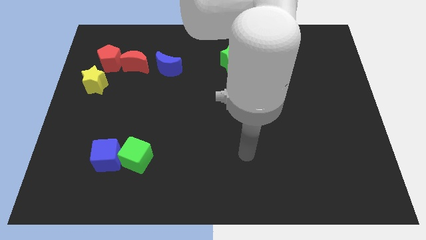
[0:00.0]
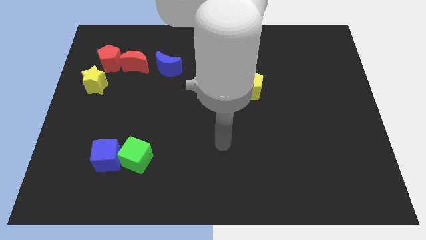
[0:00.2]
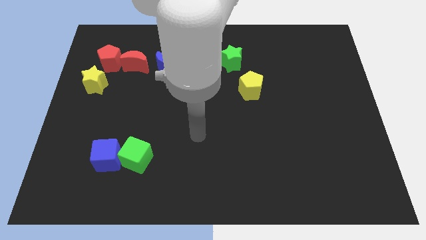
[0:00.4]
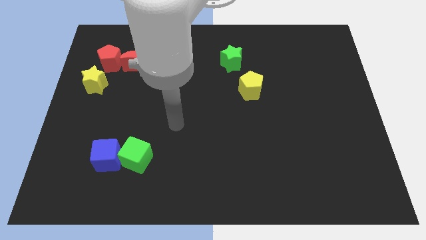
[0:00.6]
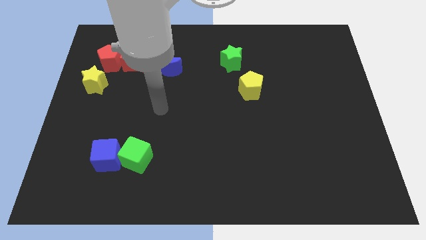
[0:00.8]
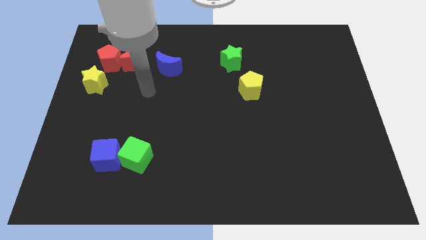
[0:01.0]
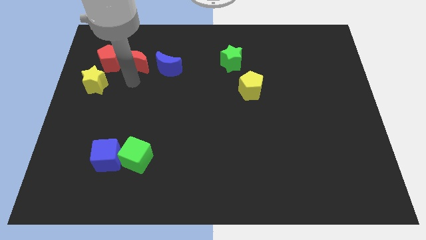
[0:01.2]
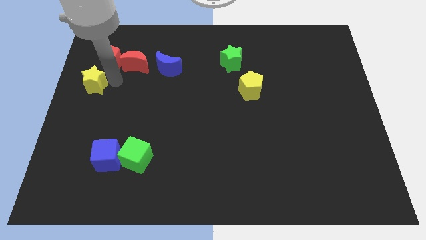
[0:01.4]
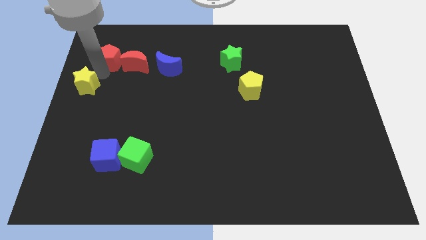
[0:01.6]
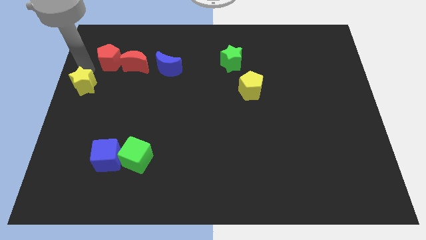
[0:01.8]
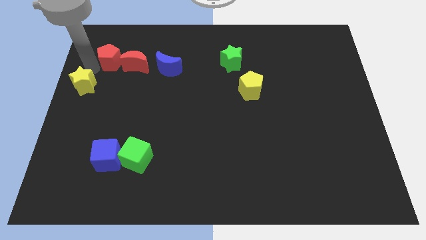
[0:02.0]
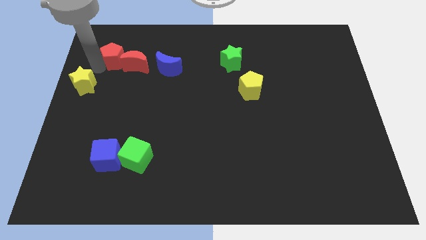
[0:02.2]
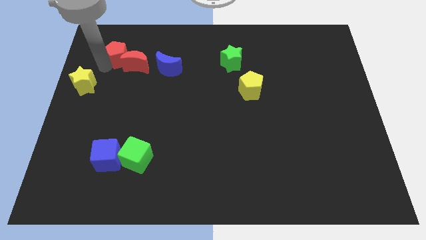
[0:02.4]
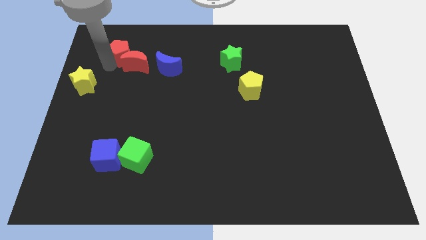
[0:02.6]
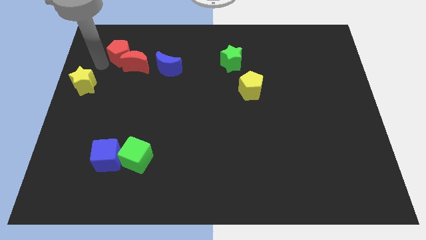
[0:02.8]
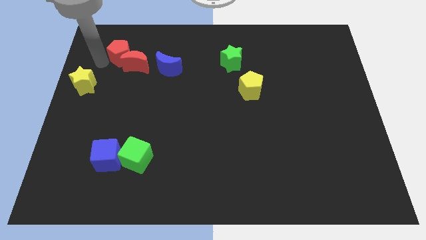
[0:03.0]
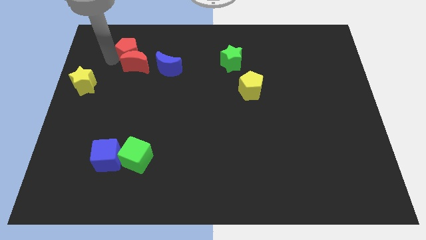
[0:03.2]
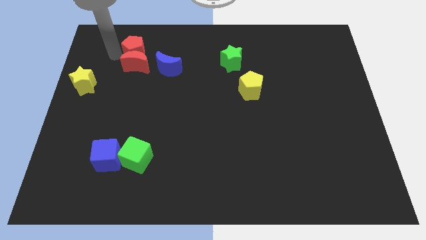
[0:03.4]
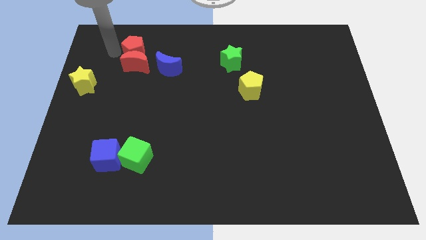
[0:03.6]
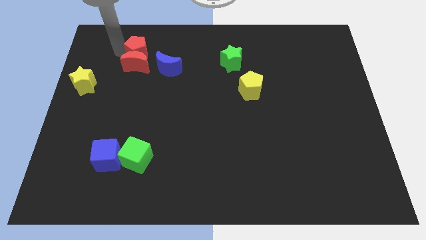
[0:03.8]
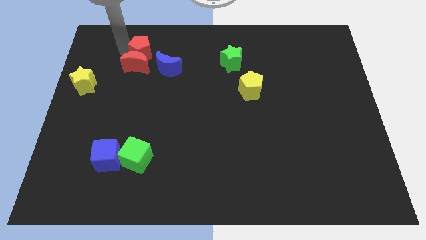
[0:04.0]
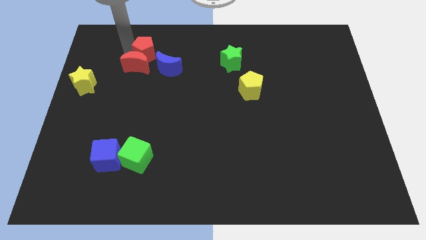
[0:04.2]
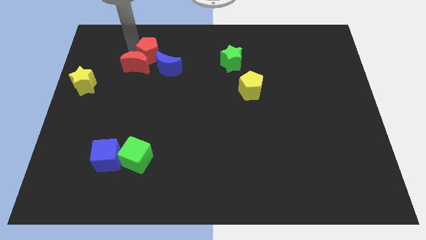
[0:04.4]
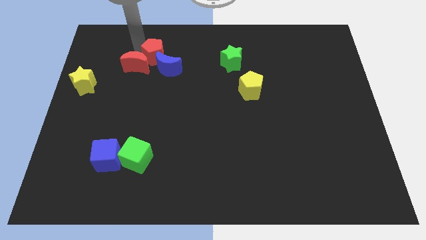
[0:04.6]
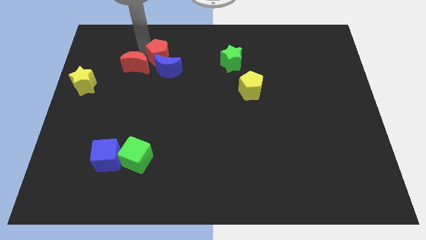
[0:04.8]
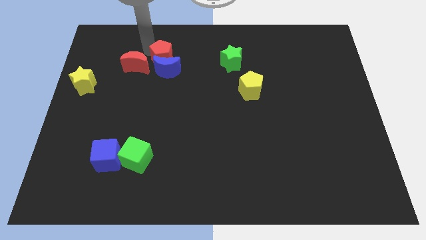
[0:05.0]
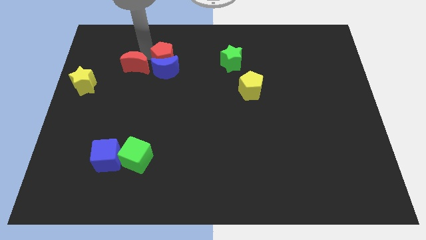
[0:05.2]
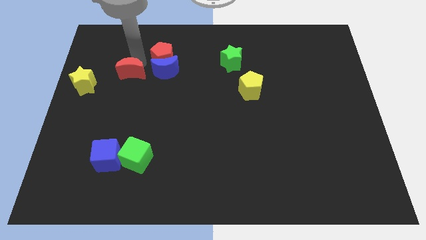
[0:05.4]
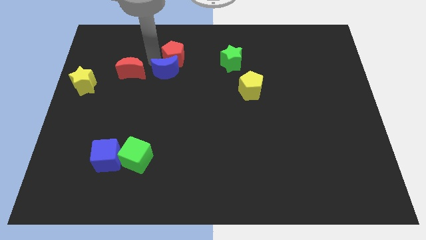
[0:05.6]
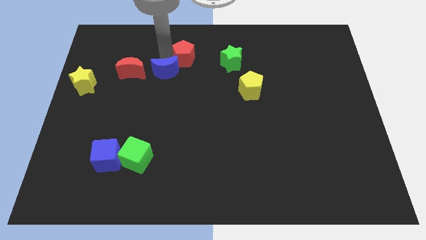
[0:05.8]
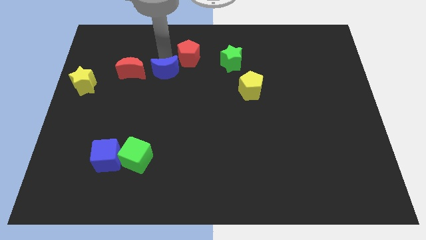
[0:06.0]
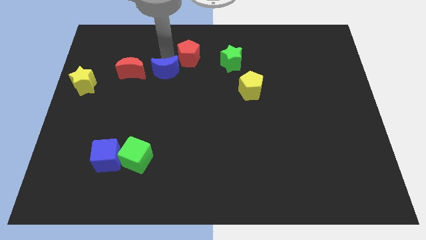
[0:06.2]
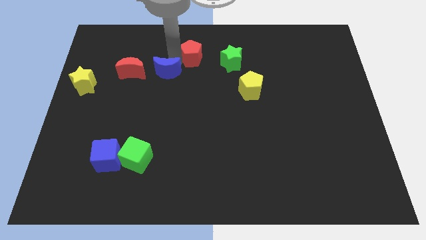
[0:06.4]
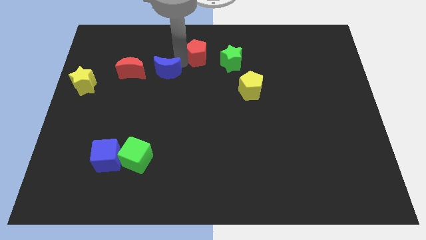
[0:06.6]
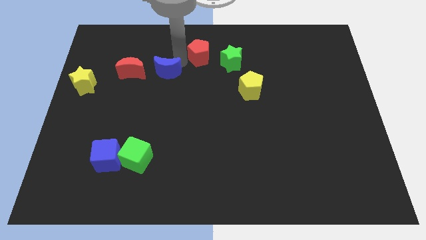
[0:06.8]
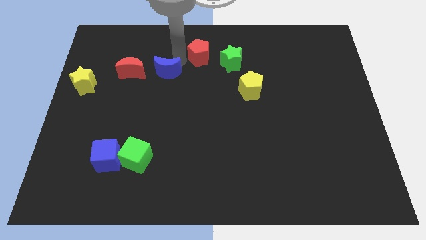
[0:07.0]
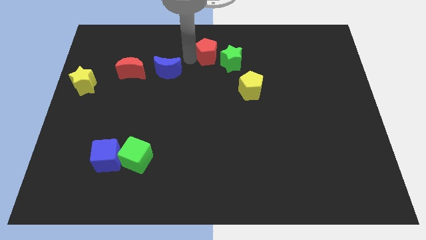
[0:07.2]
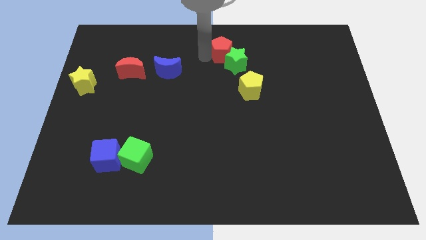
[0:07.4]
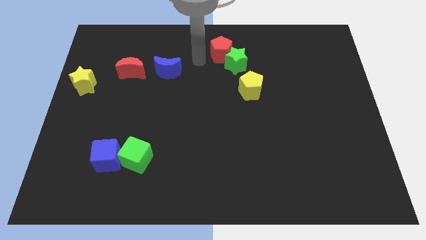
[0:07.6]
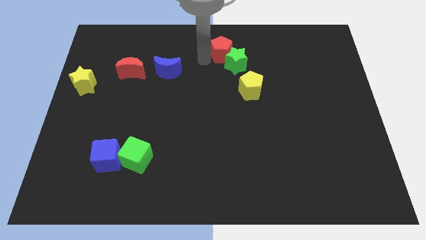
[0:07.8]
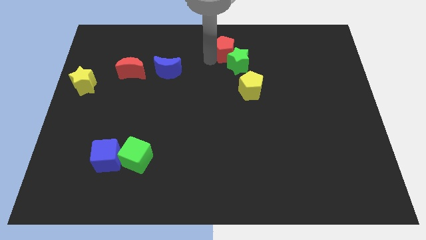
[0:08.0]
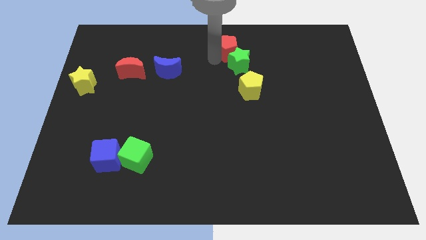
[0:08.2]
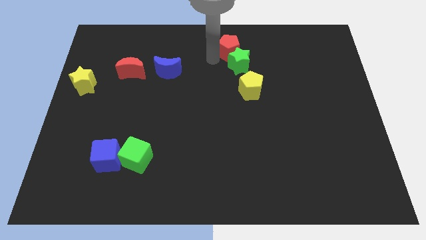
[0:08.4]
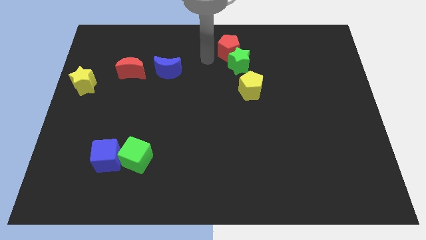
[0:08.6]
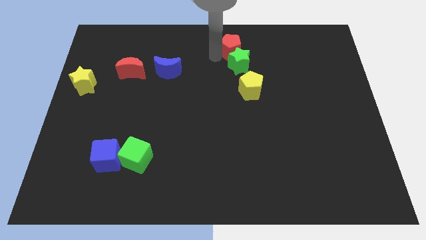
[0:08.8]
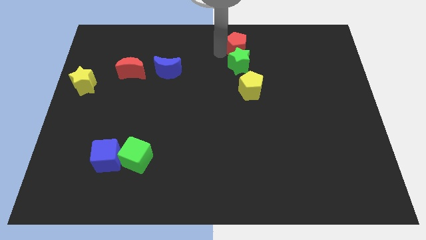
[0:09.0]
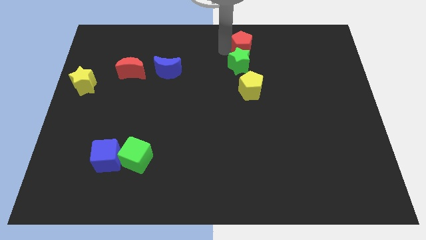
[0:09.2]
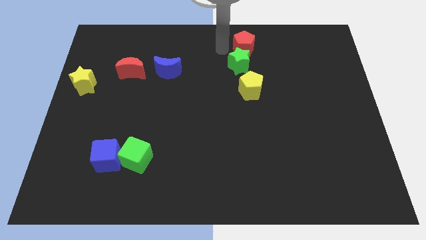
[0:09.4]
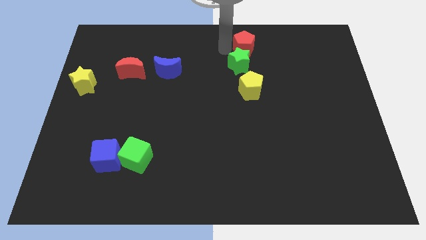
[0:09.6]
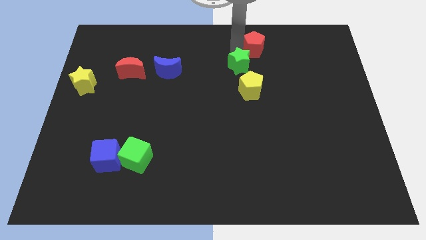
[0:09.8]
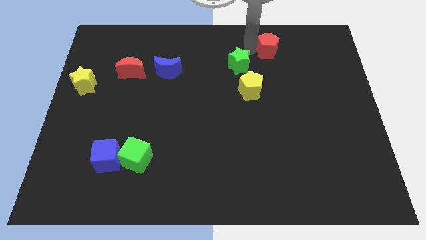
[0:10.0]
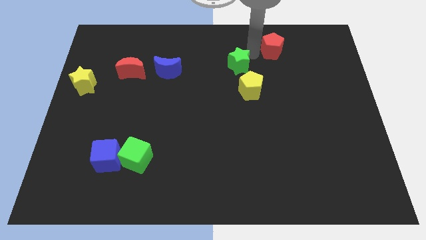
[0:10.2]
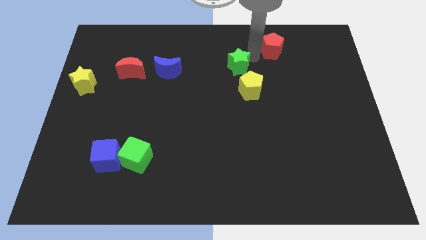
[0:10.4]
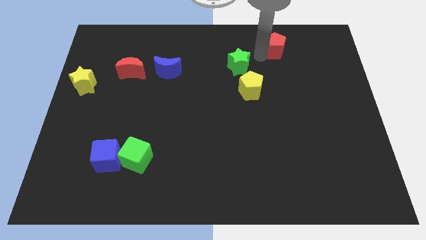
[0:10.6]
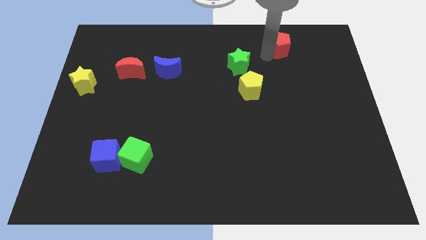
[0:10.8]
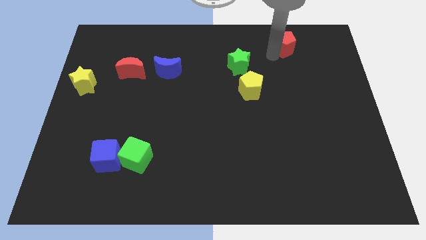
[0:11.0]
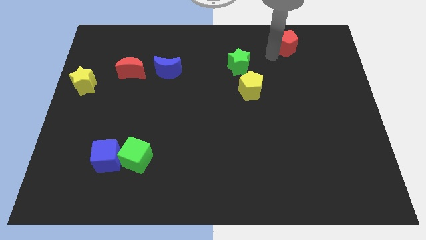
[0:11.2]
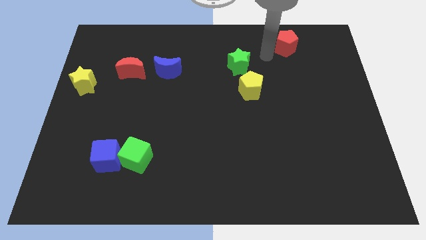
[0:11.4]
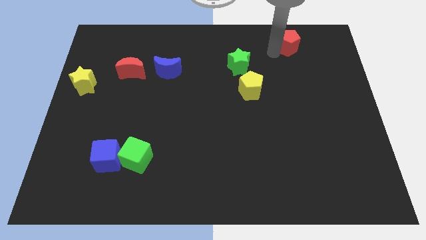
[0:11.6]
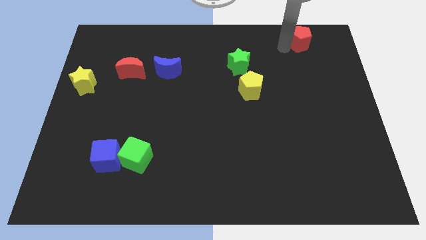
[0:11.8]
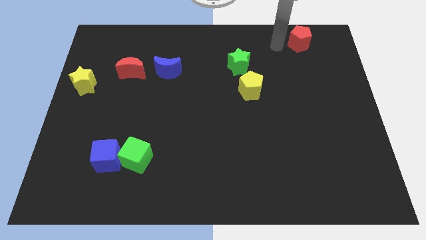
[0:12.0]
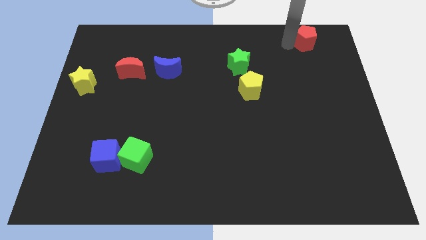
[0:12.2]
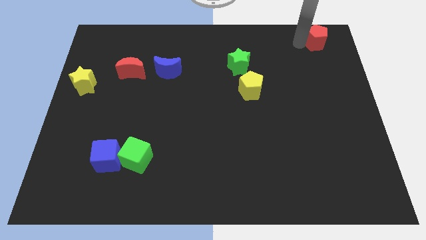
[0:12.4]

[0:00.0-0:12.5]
put the red pentagon to the top right of the board

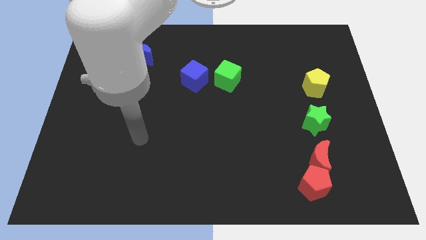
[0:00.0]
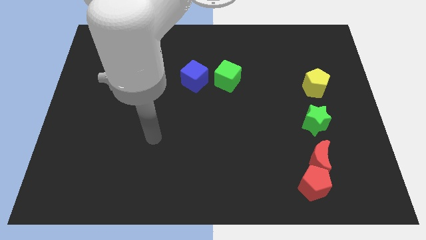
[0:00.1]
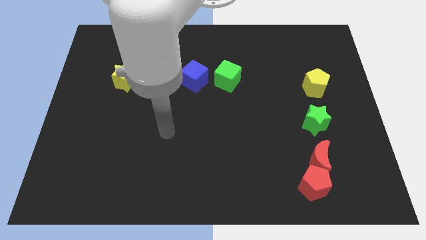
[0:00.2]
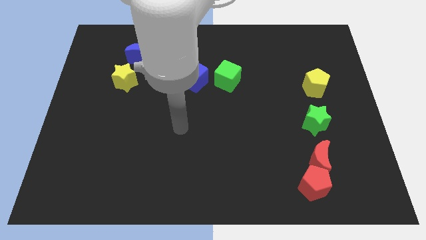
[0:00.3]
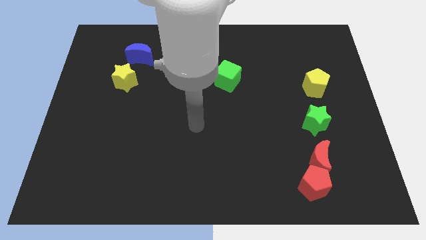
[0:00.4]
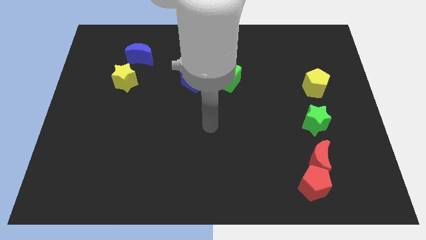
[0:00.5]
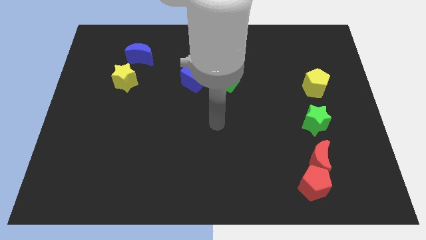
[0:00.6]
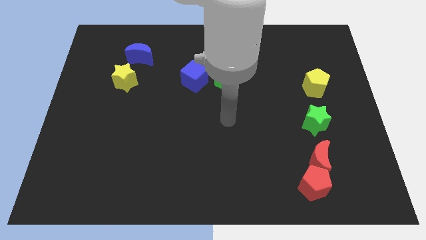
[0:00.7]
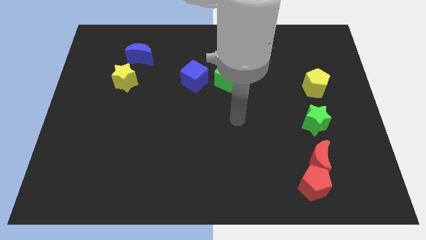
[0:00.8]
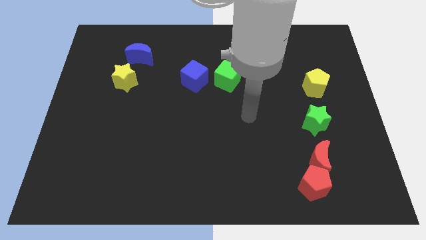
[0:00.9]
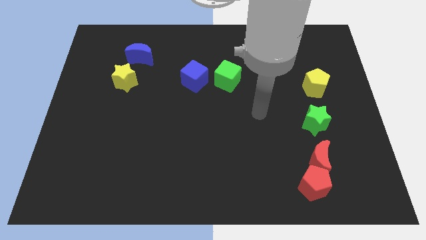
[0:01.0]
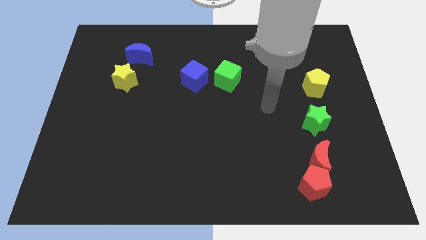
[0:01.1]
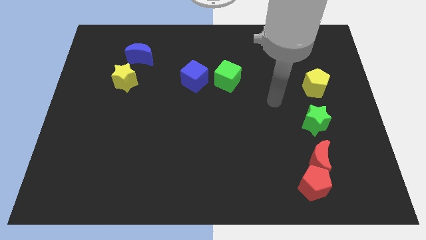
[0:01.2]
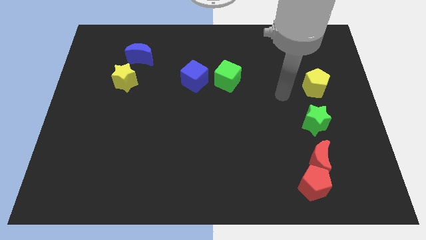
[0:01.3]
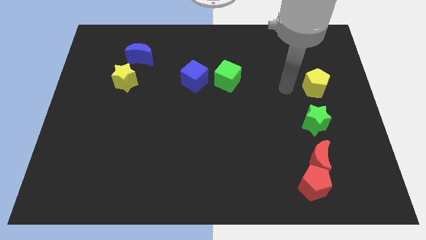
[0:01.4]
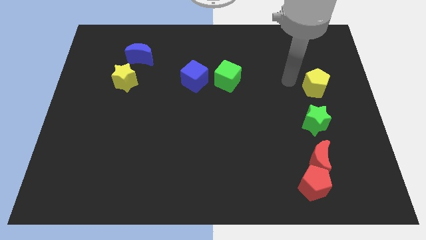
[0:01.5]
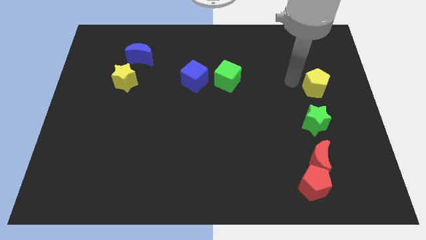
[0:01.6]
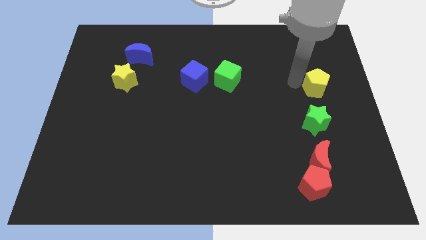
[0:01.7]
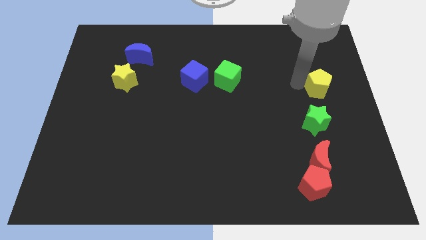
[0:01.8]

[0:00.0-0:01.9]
move the yellow pentagon to the right side
